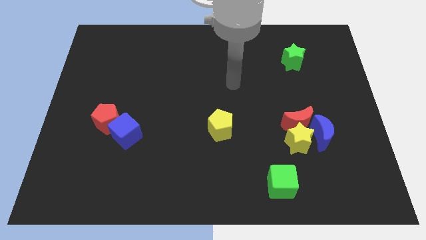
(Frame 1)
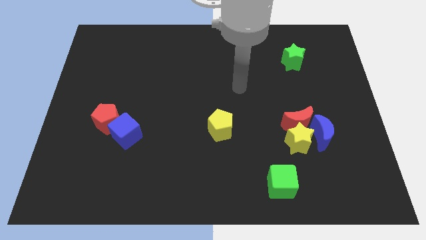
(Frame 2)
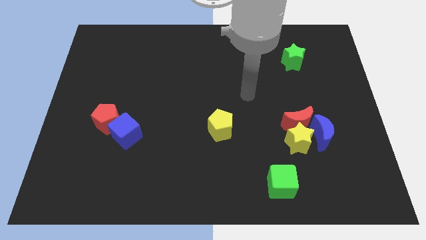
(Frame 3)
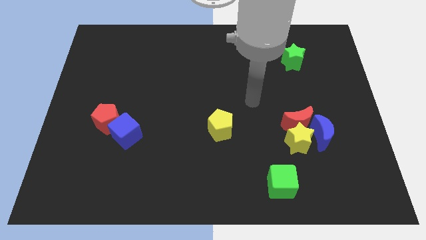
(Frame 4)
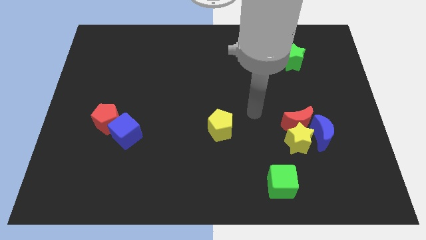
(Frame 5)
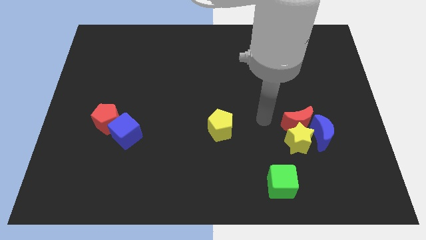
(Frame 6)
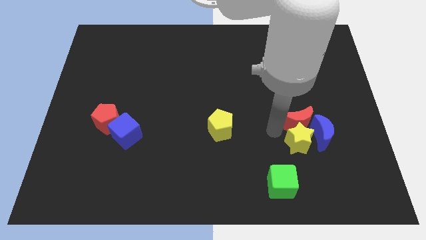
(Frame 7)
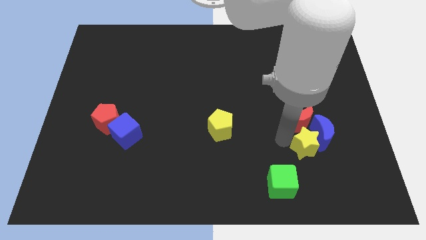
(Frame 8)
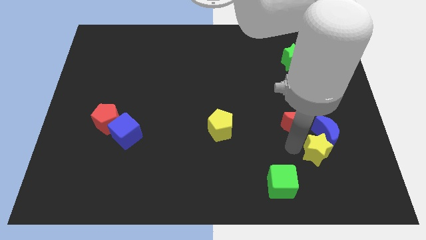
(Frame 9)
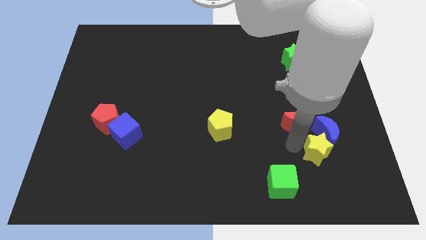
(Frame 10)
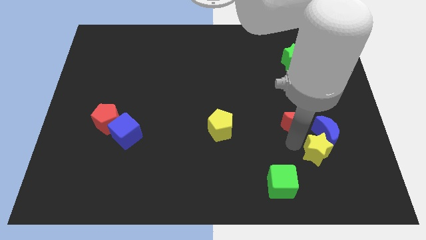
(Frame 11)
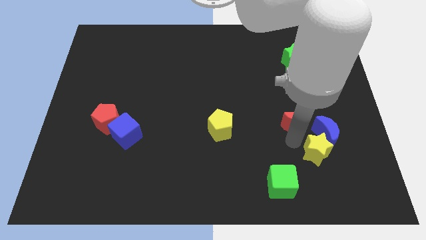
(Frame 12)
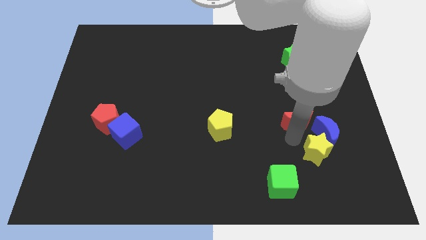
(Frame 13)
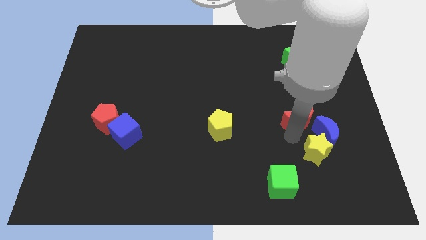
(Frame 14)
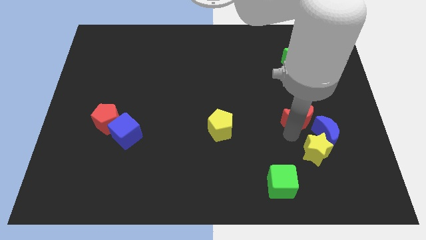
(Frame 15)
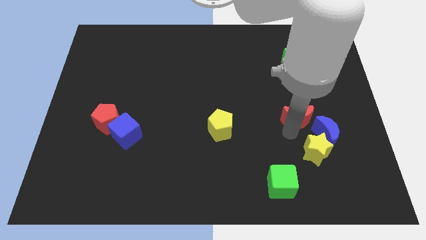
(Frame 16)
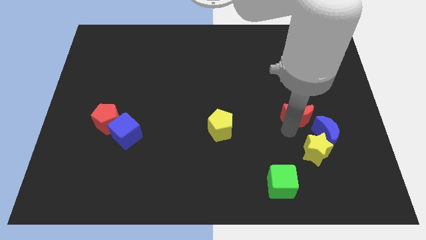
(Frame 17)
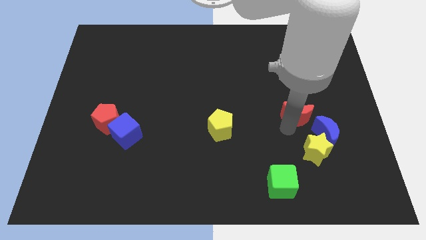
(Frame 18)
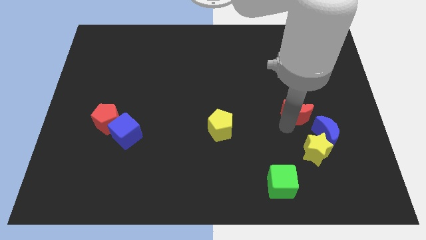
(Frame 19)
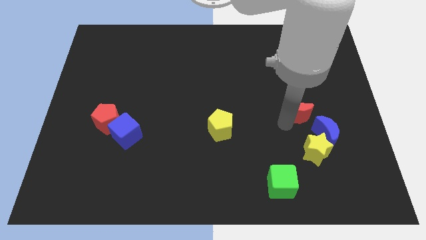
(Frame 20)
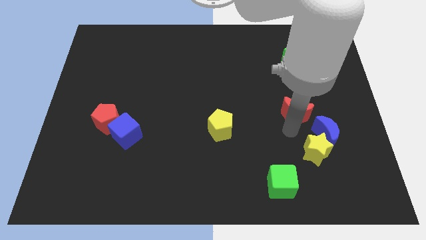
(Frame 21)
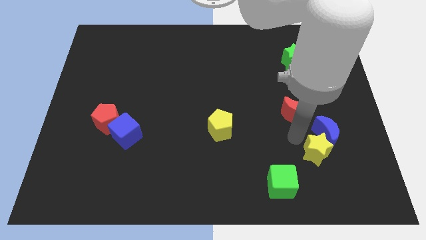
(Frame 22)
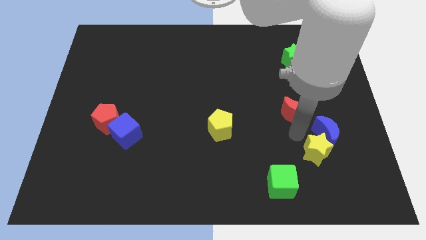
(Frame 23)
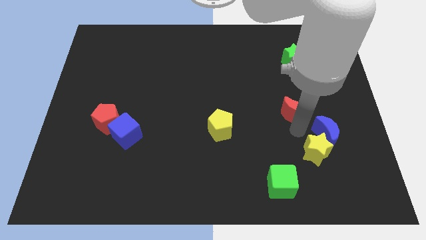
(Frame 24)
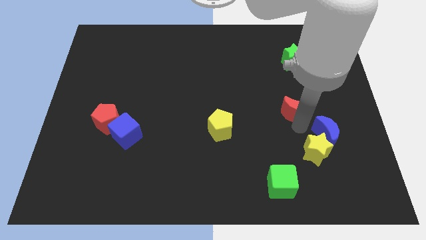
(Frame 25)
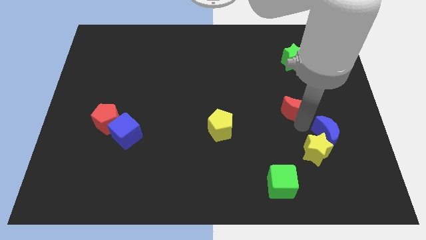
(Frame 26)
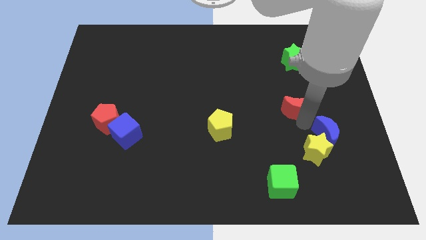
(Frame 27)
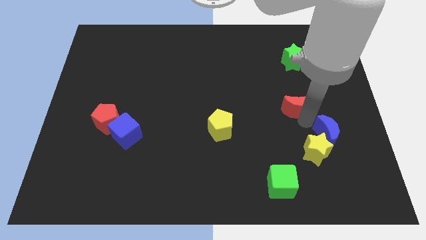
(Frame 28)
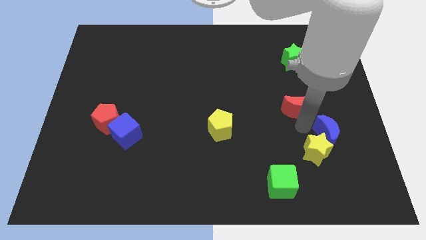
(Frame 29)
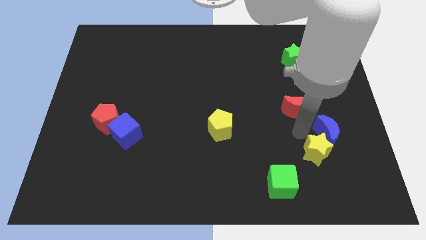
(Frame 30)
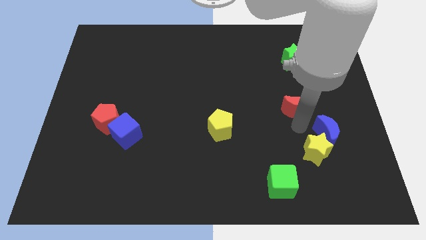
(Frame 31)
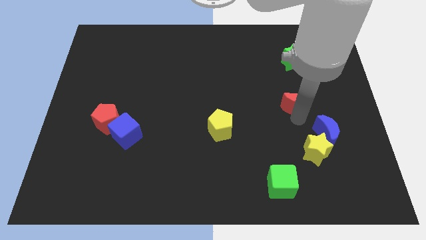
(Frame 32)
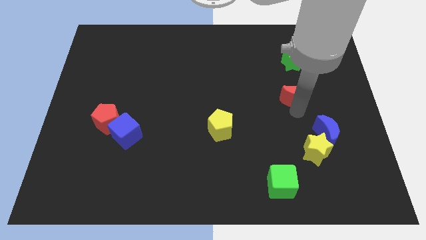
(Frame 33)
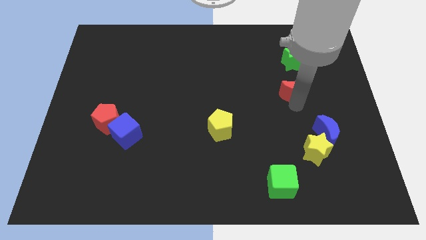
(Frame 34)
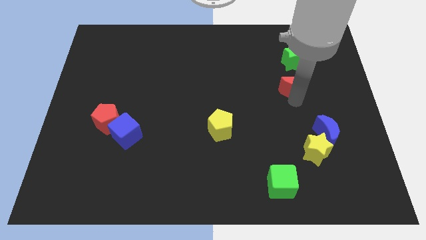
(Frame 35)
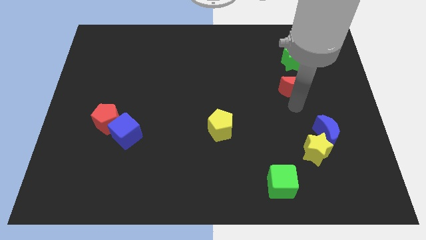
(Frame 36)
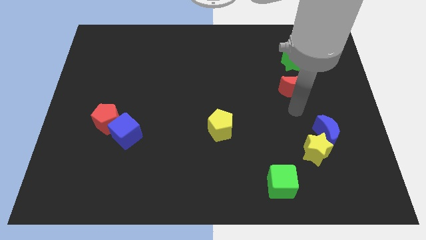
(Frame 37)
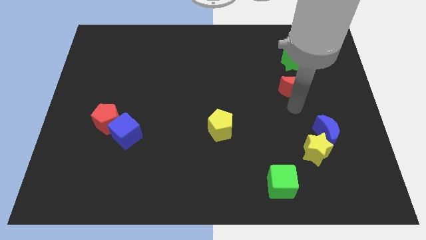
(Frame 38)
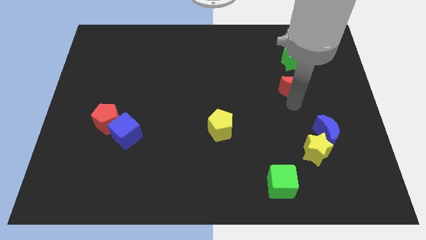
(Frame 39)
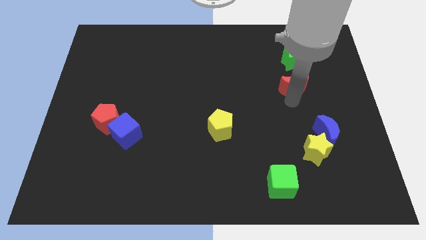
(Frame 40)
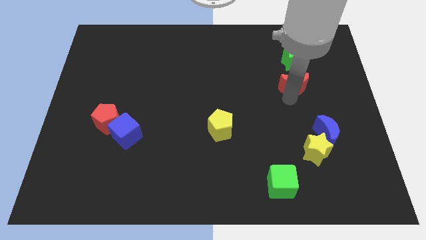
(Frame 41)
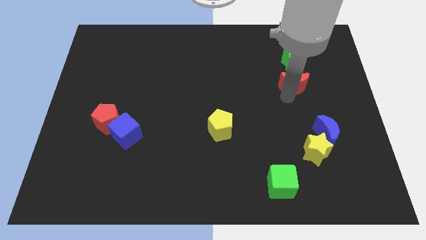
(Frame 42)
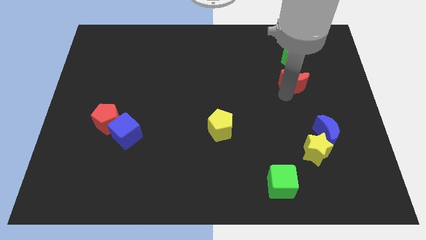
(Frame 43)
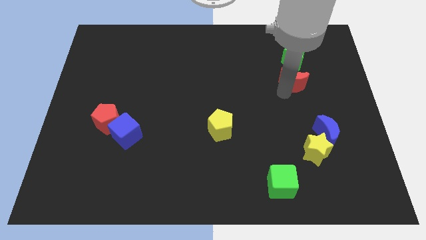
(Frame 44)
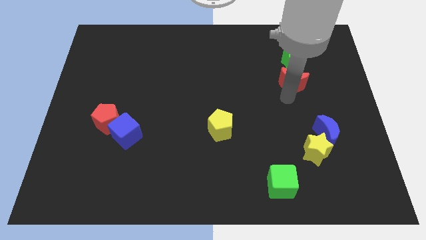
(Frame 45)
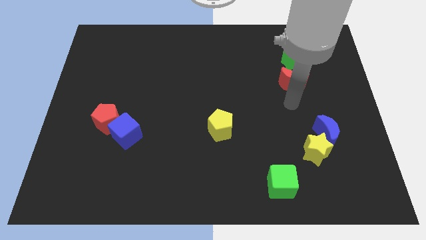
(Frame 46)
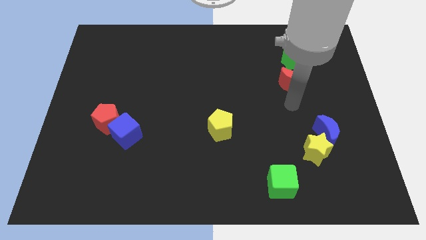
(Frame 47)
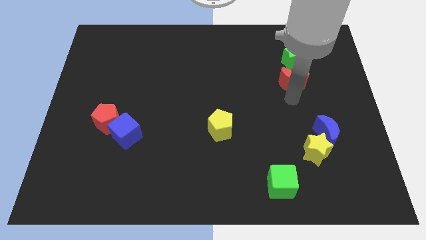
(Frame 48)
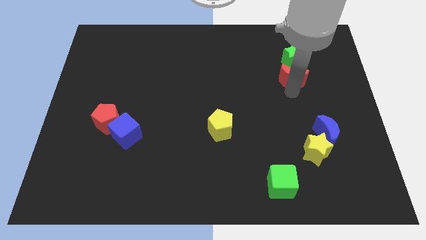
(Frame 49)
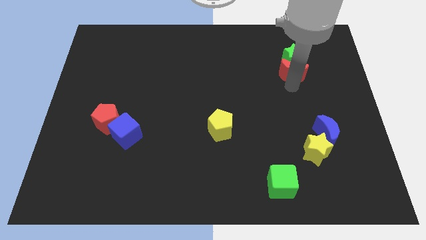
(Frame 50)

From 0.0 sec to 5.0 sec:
move the red moon close to the green star

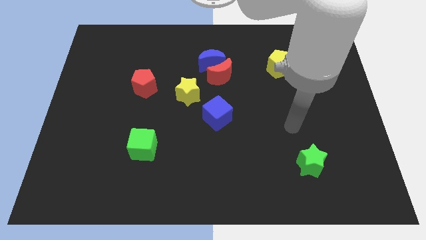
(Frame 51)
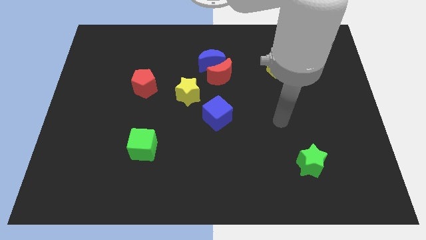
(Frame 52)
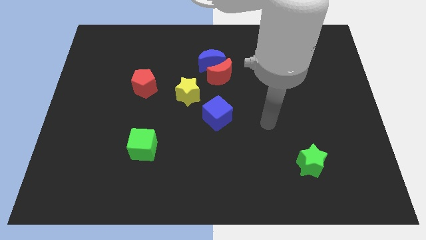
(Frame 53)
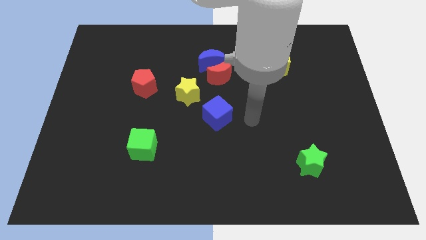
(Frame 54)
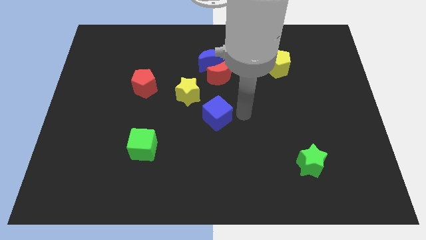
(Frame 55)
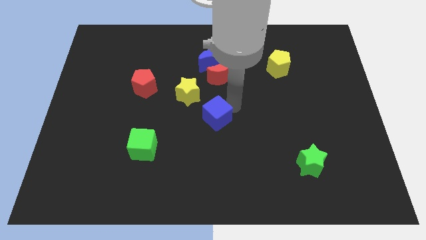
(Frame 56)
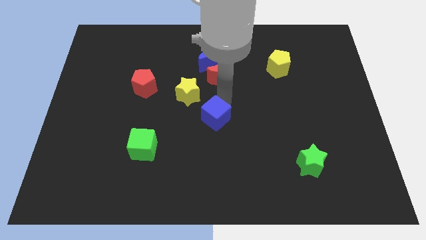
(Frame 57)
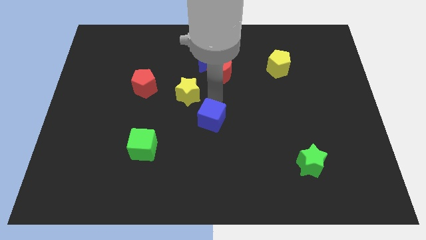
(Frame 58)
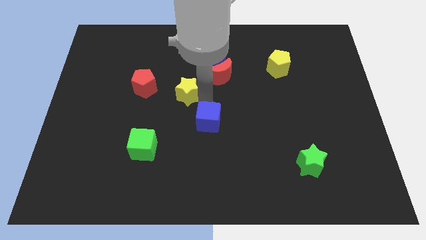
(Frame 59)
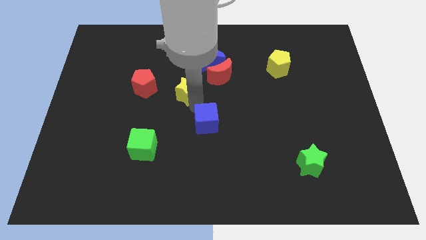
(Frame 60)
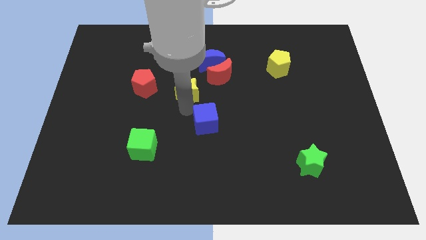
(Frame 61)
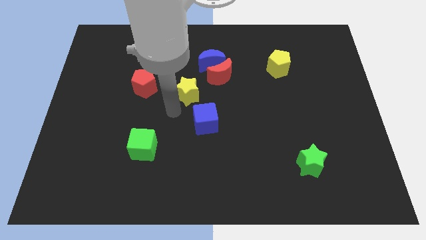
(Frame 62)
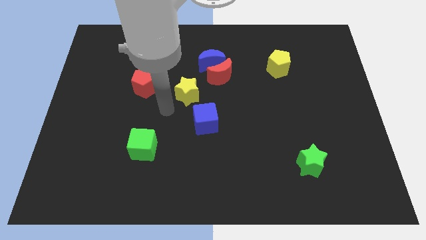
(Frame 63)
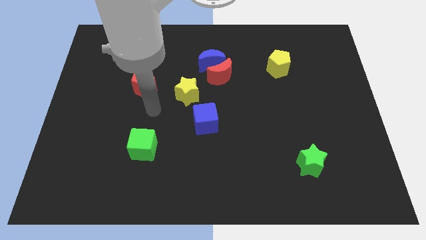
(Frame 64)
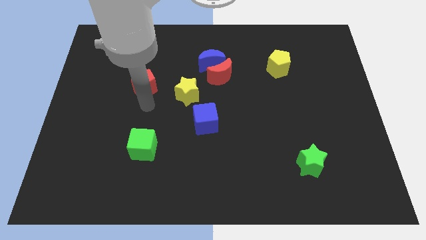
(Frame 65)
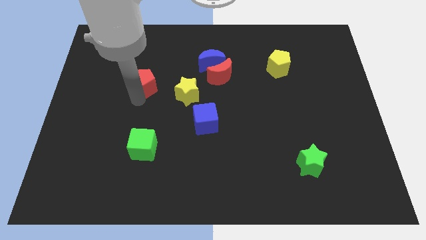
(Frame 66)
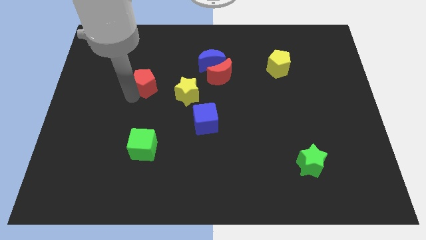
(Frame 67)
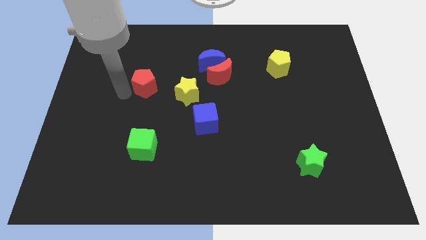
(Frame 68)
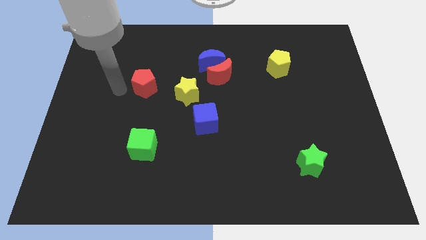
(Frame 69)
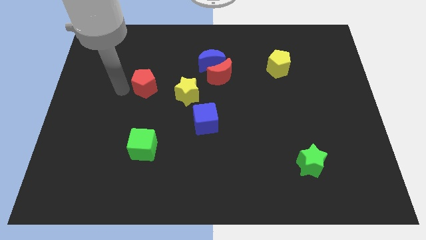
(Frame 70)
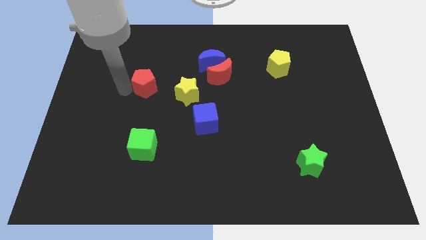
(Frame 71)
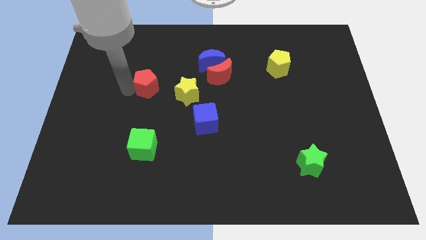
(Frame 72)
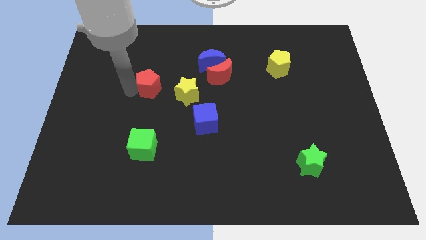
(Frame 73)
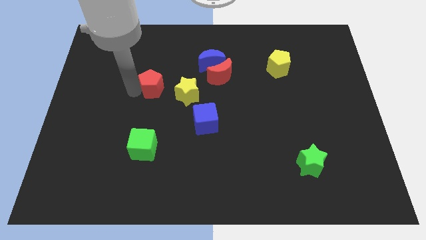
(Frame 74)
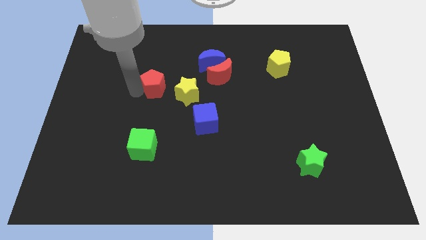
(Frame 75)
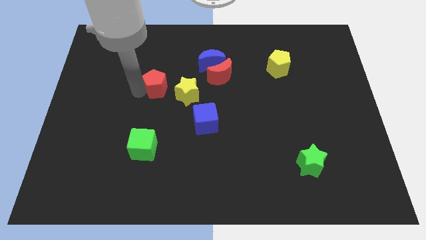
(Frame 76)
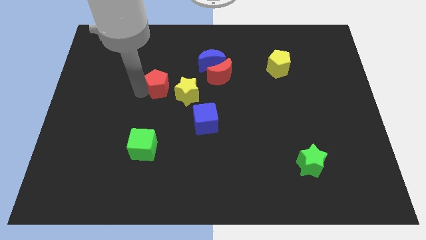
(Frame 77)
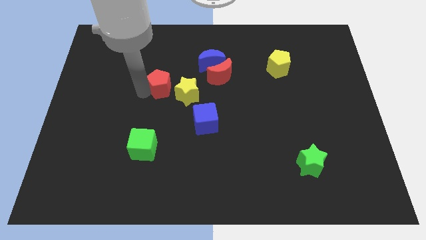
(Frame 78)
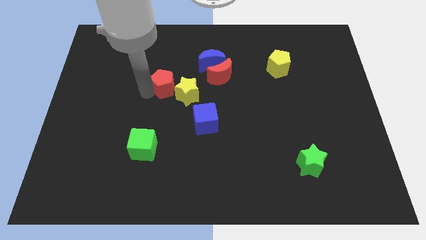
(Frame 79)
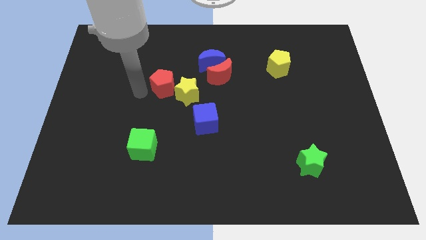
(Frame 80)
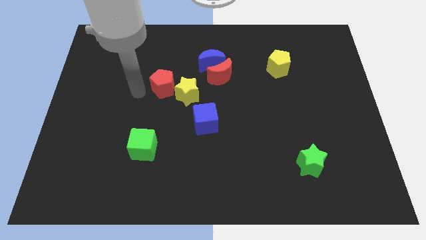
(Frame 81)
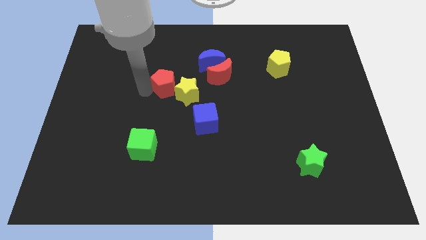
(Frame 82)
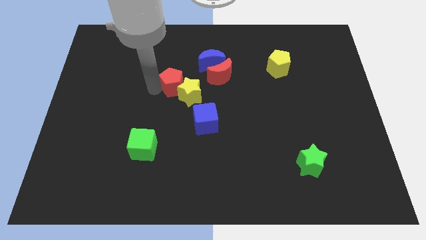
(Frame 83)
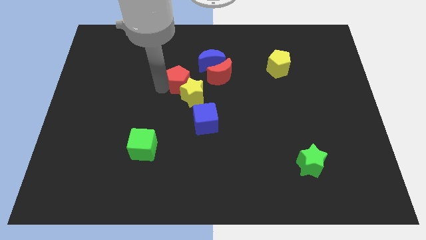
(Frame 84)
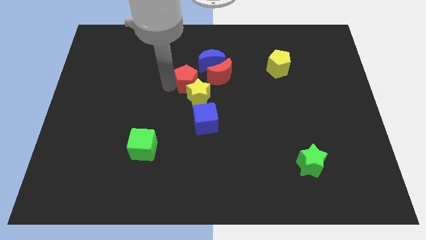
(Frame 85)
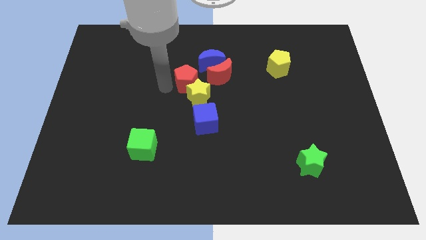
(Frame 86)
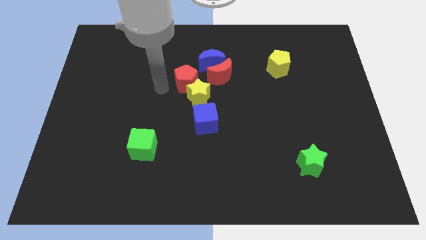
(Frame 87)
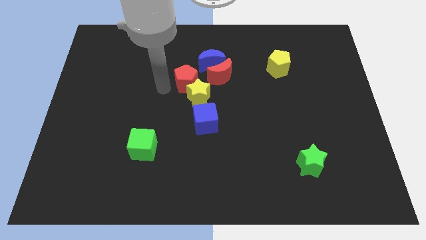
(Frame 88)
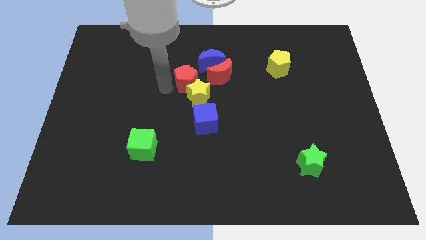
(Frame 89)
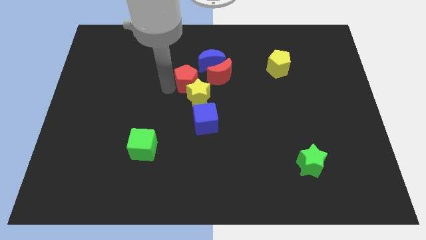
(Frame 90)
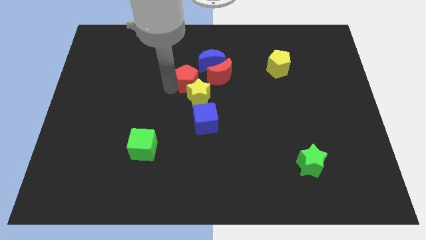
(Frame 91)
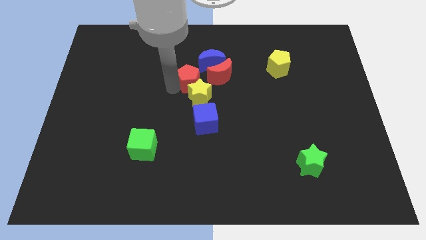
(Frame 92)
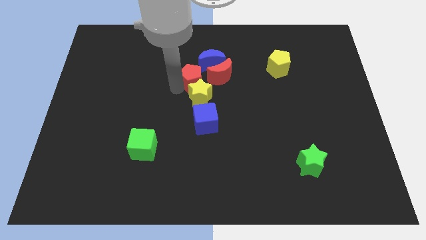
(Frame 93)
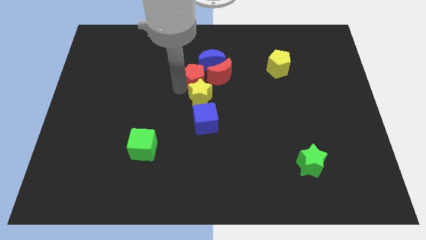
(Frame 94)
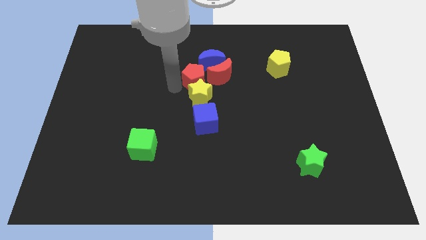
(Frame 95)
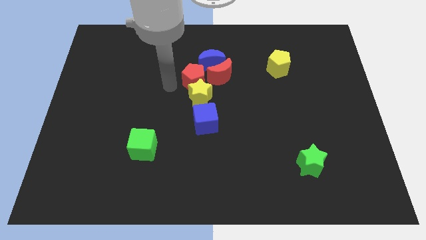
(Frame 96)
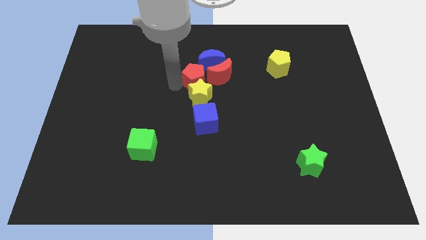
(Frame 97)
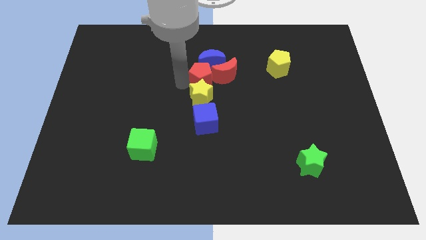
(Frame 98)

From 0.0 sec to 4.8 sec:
slide the red pentagon close to the red moon
